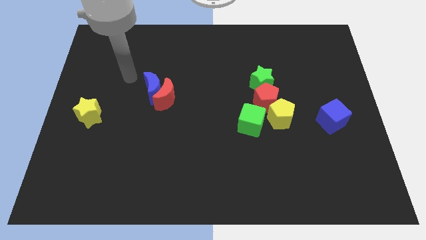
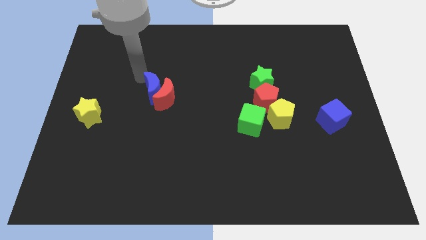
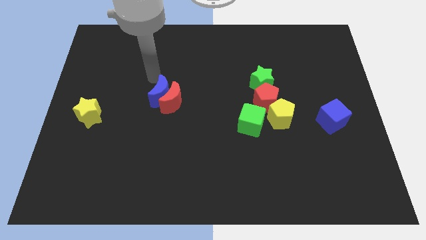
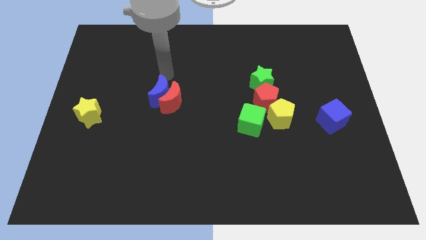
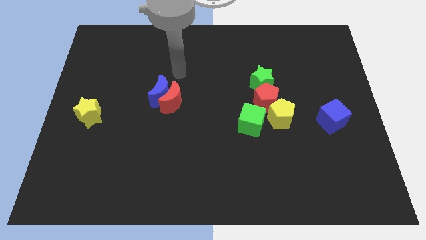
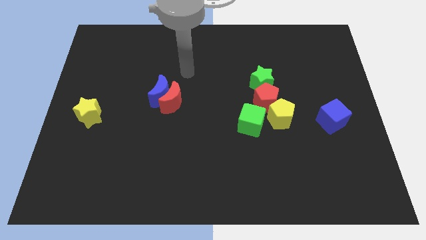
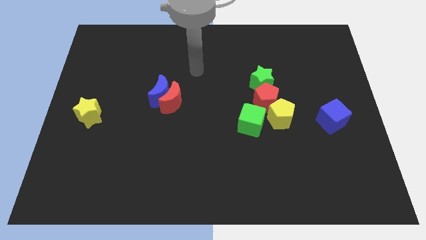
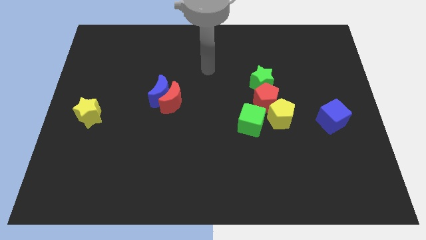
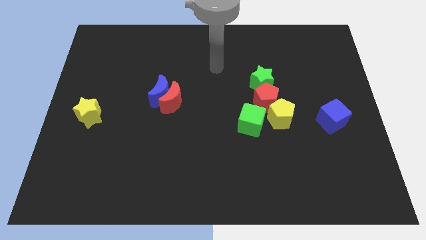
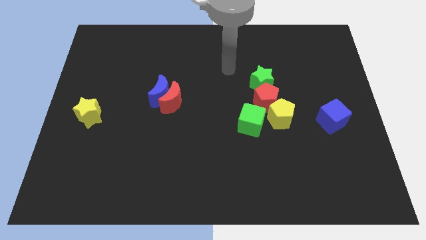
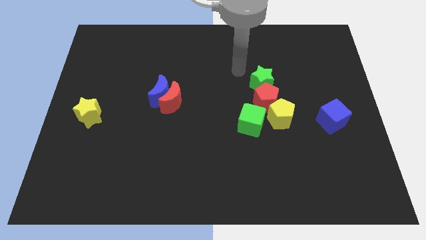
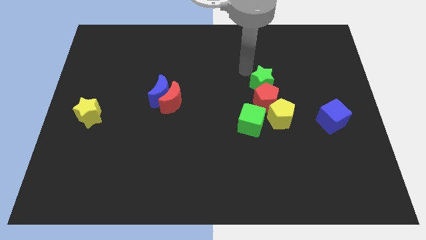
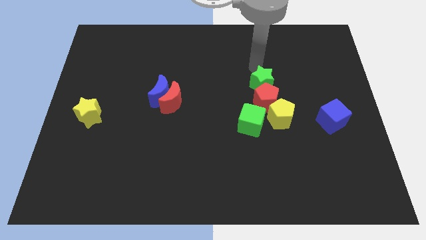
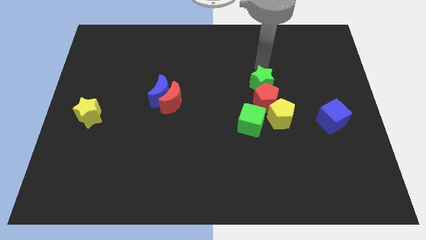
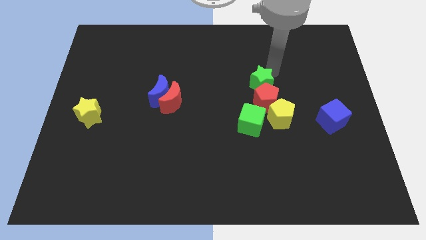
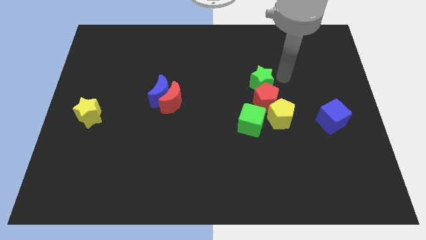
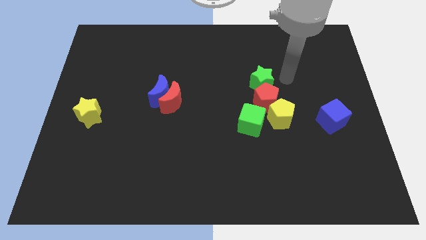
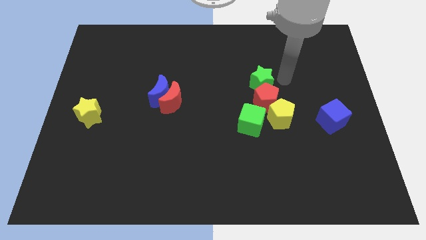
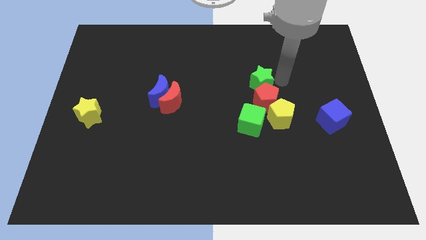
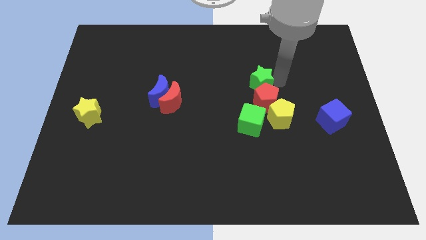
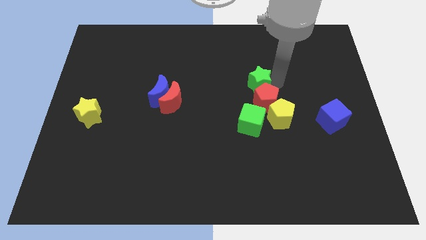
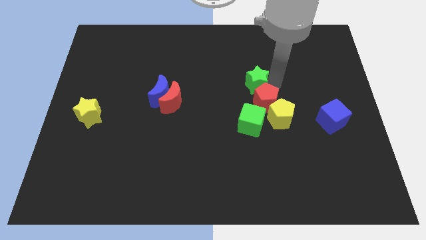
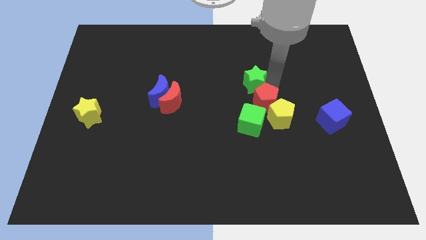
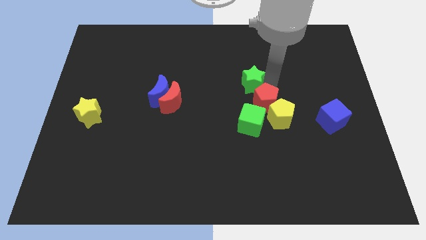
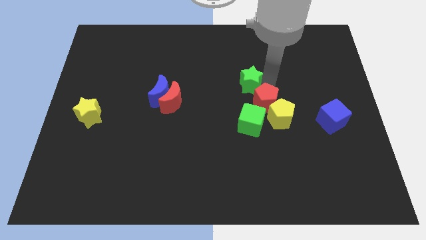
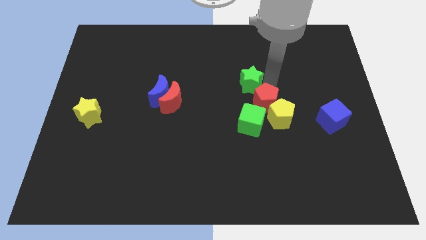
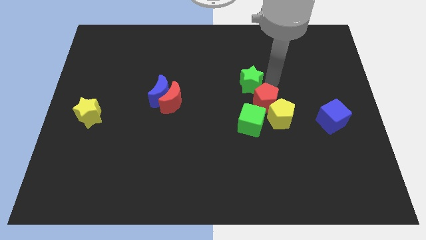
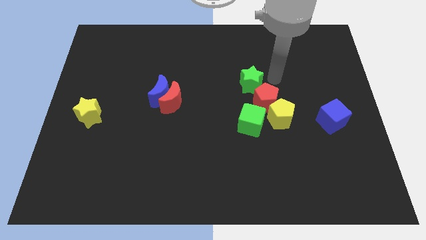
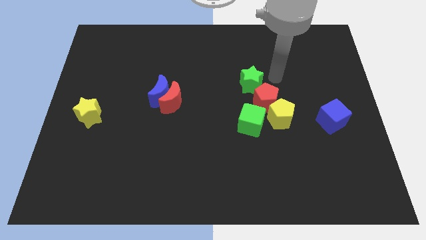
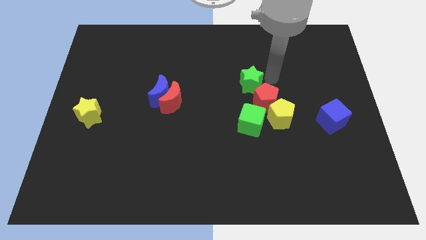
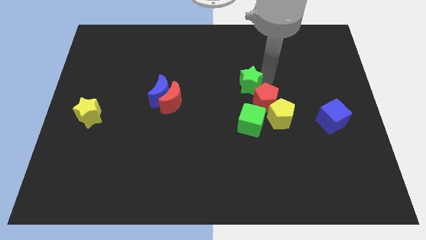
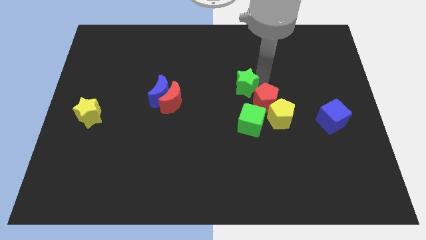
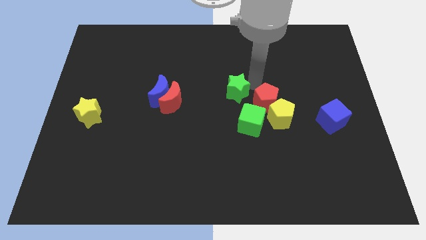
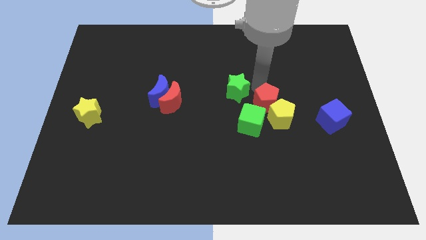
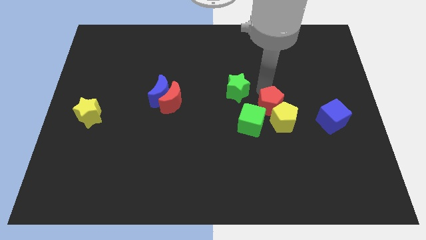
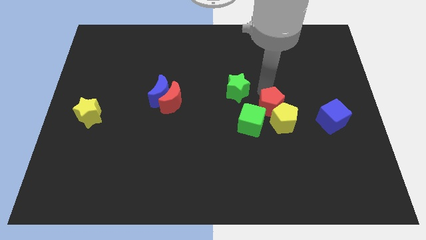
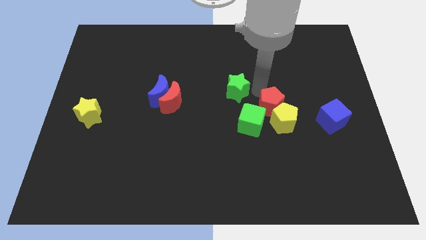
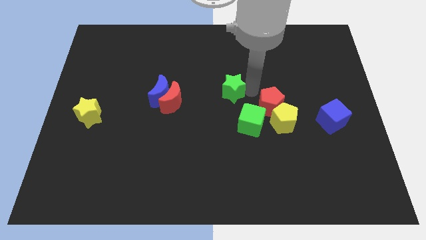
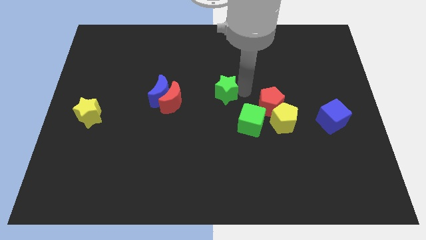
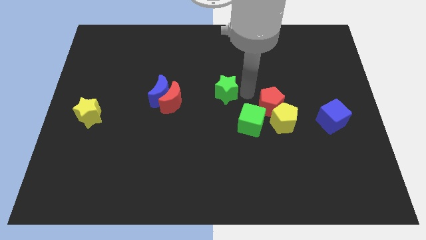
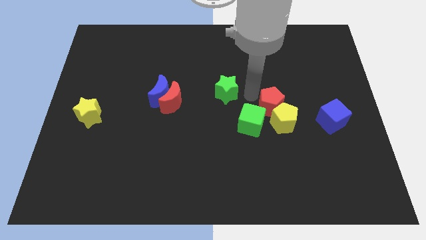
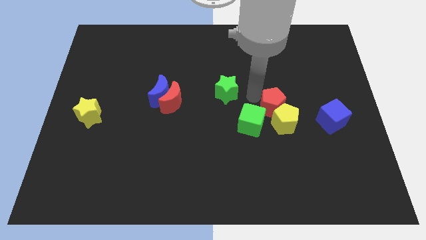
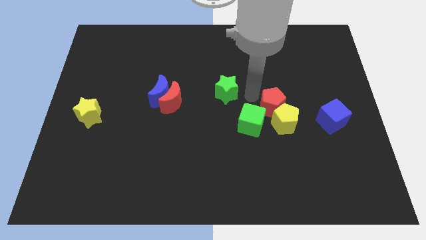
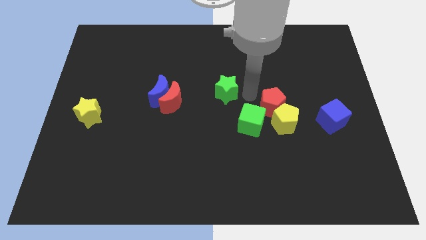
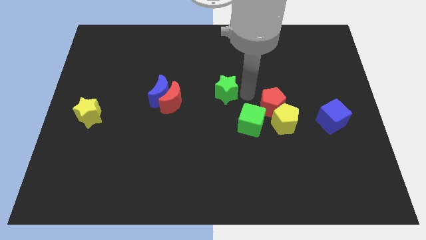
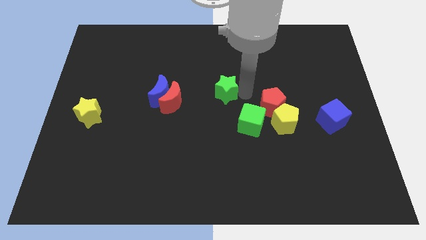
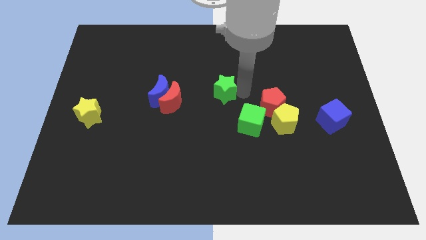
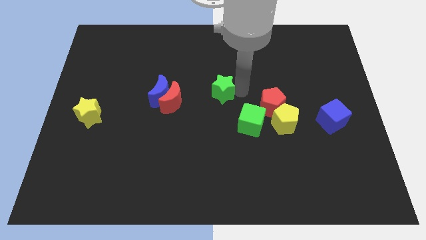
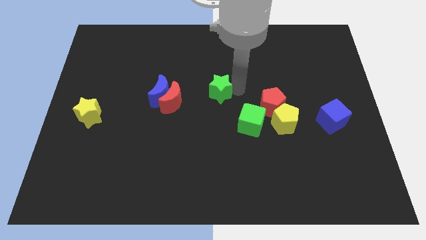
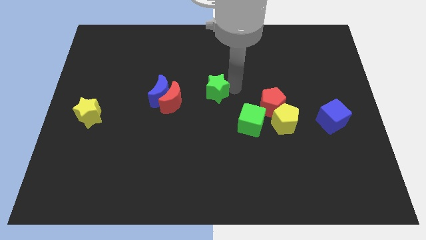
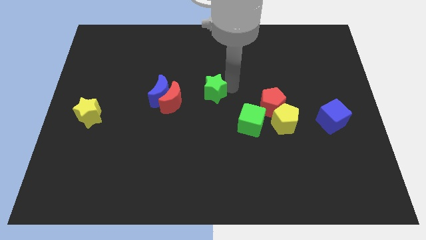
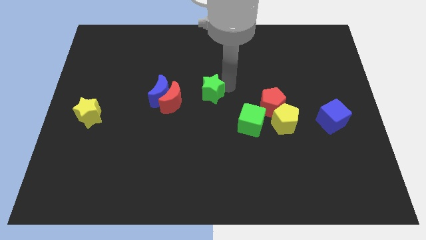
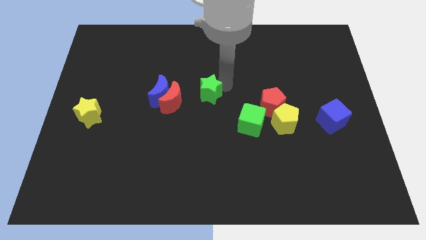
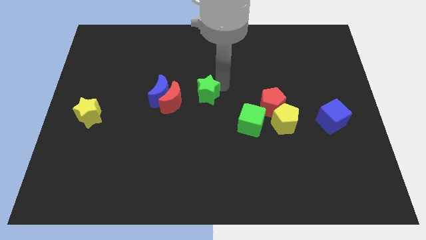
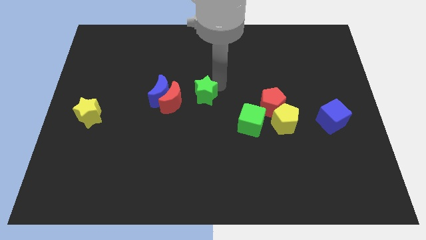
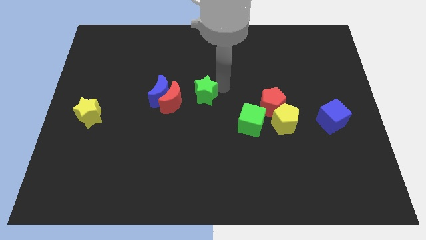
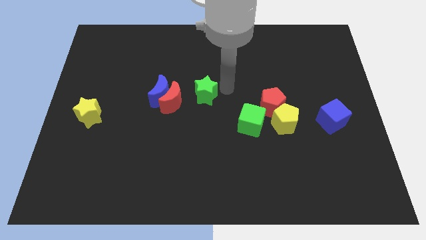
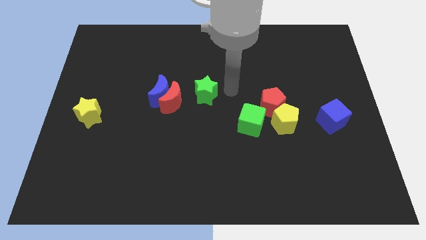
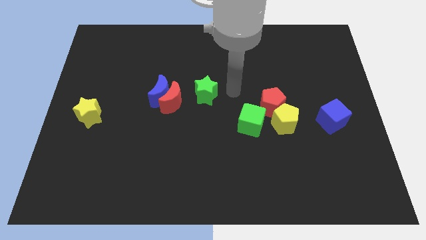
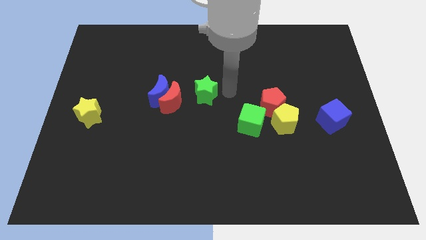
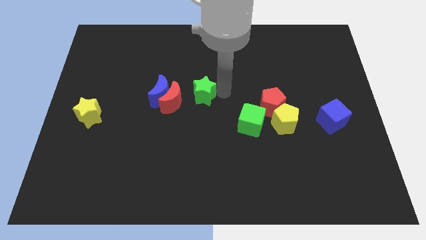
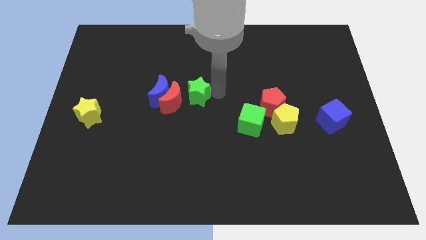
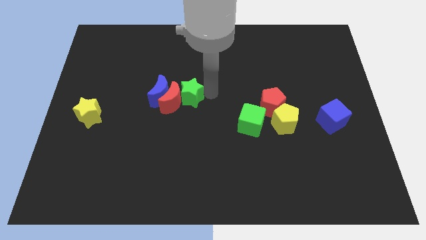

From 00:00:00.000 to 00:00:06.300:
put the green star close to the red moon

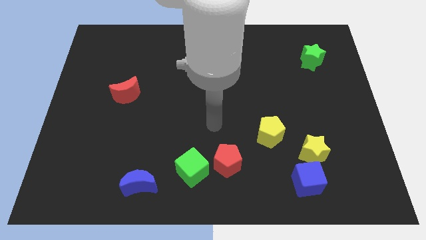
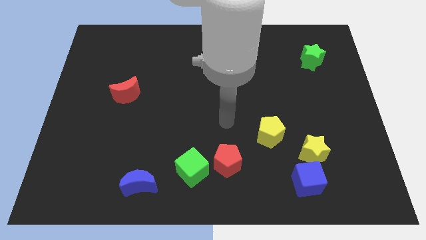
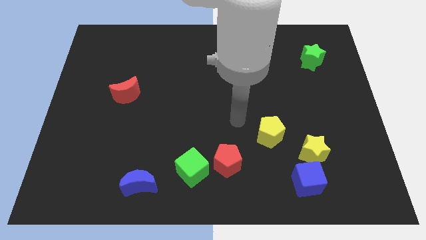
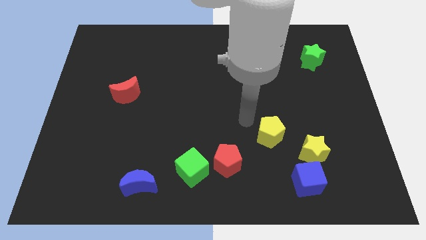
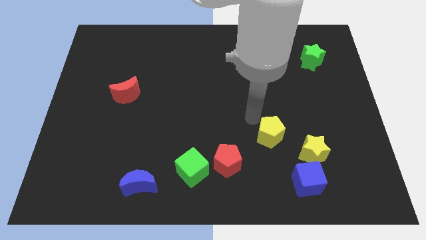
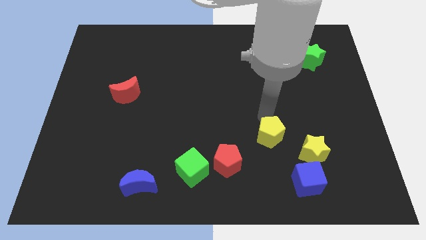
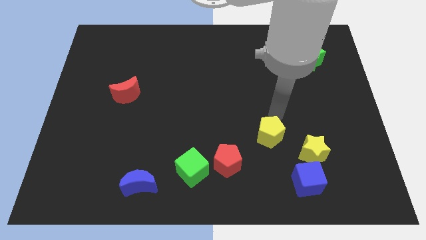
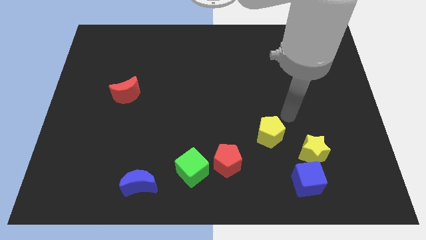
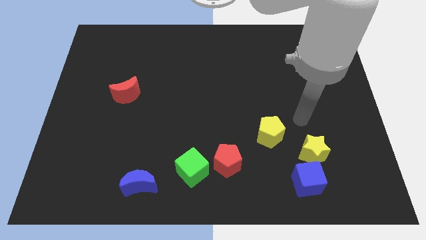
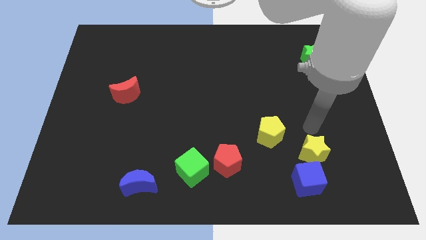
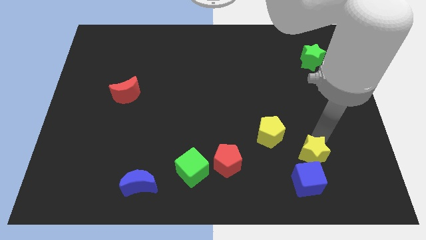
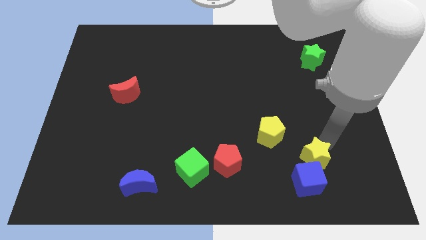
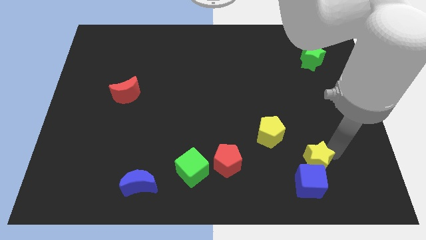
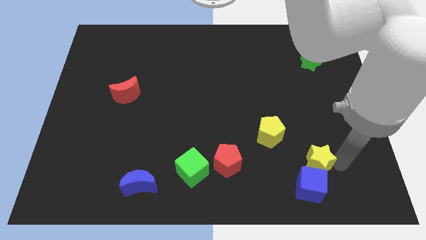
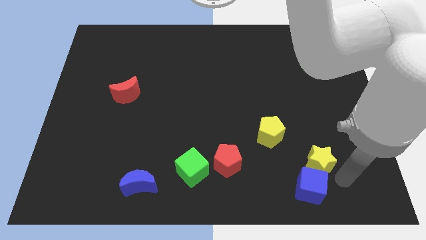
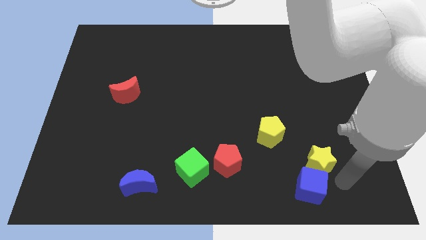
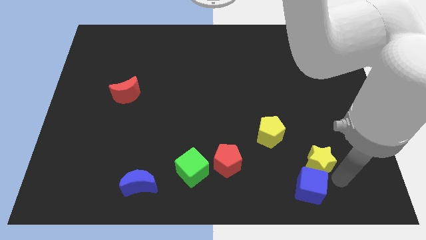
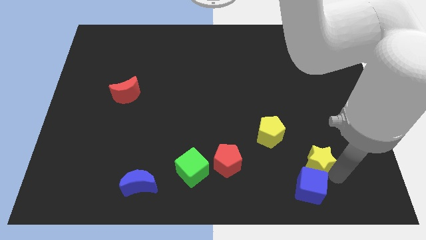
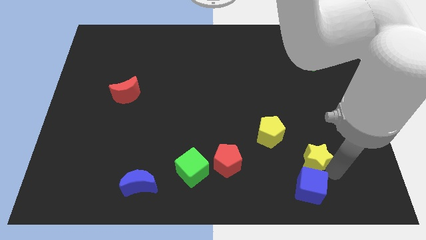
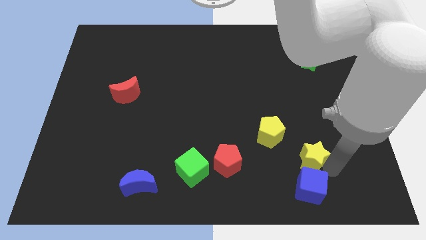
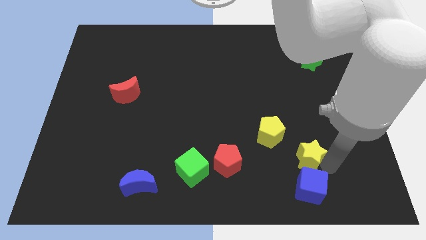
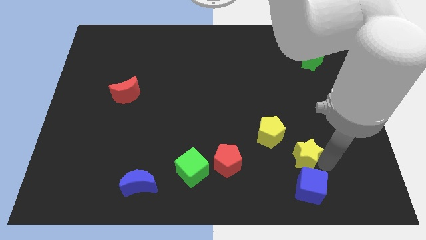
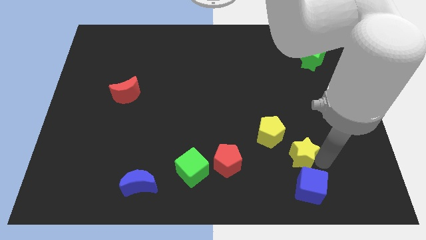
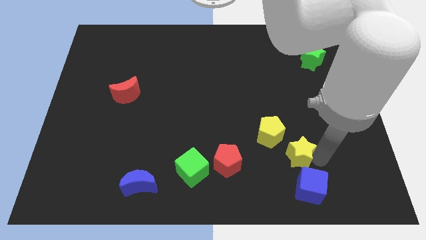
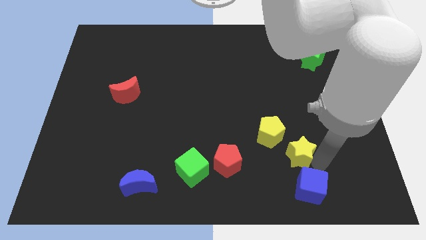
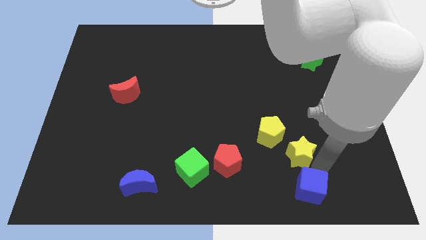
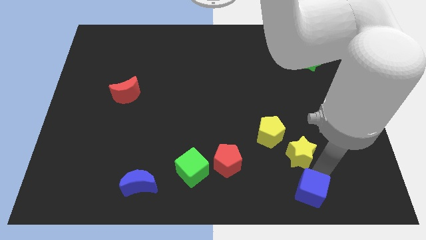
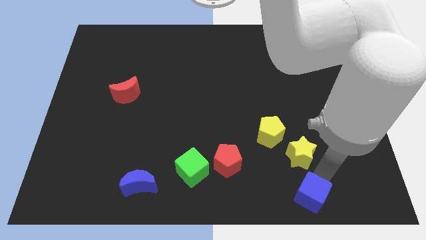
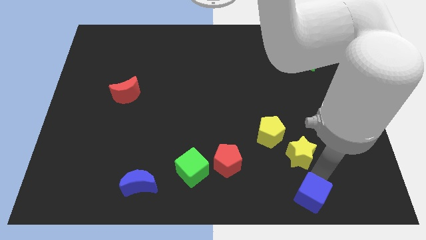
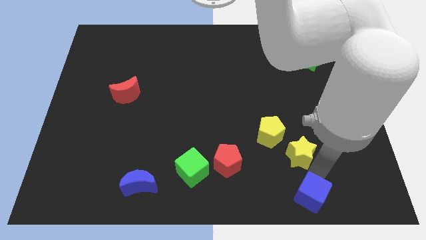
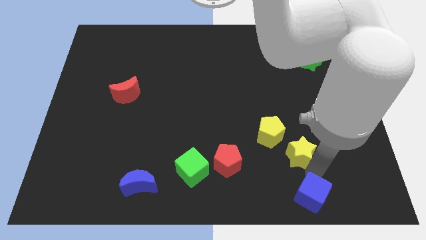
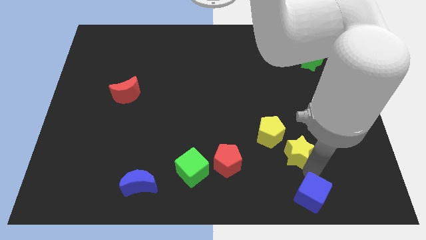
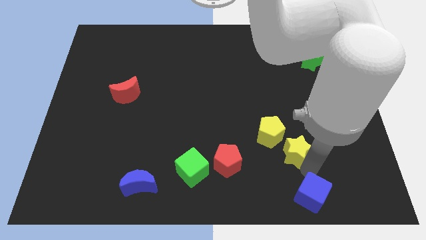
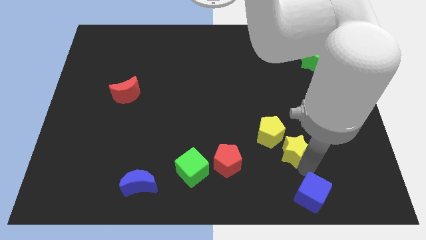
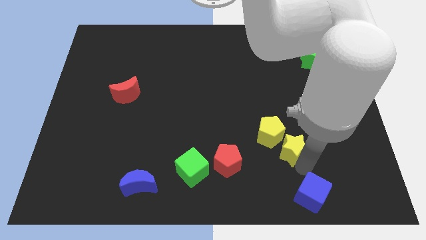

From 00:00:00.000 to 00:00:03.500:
move the yellow star next to the yellow pentagon
